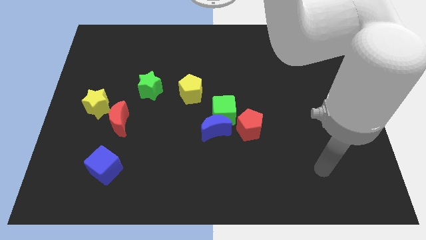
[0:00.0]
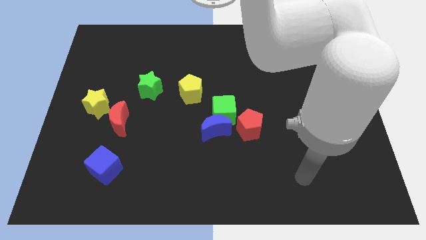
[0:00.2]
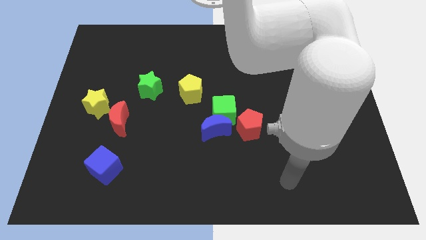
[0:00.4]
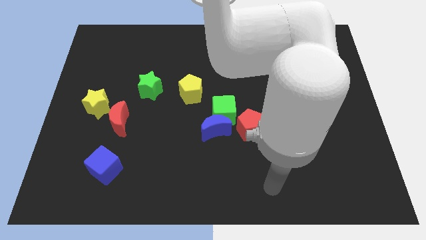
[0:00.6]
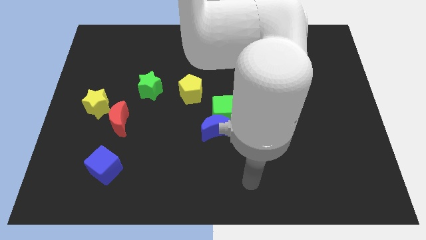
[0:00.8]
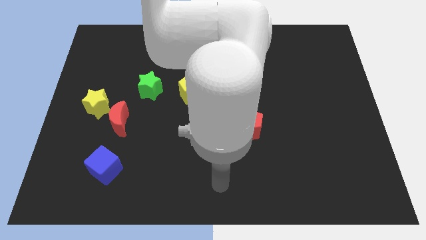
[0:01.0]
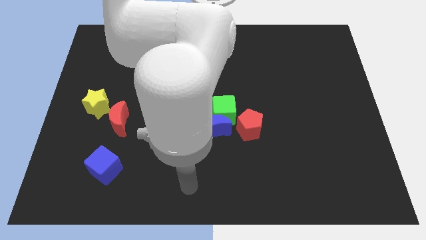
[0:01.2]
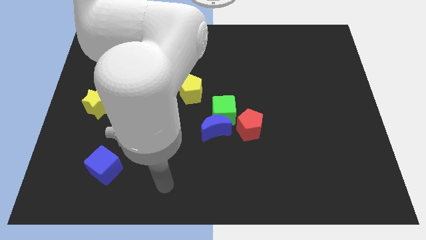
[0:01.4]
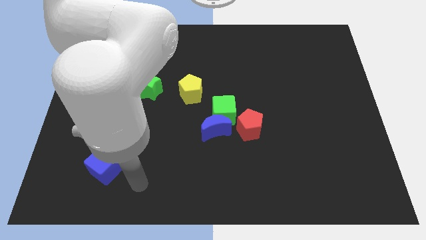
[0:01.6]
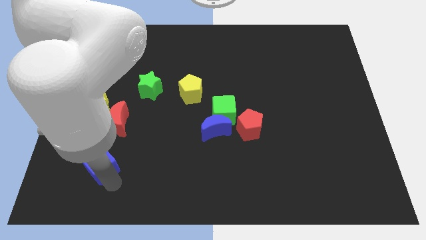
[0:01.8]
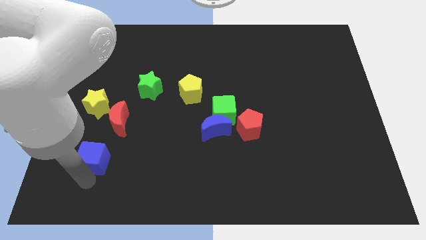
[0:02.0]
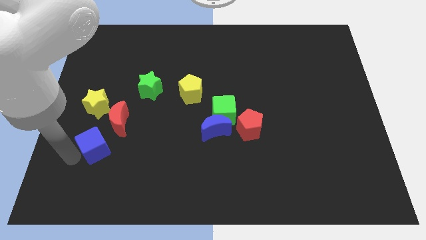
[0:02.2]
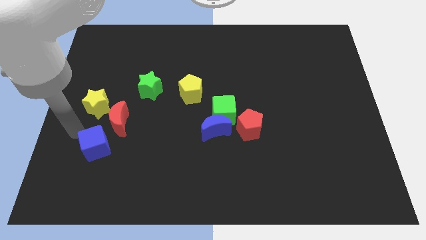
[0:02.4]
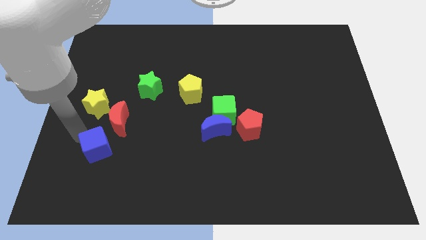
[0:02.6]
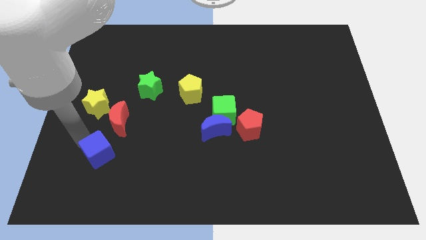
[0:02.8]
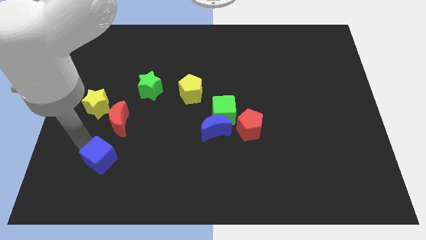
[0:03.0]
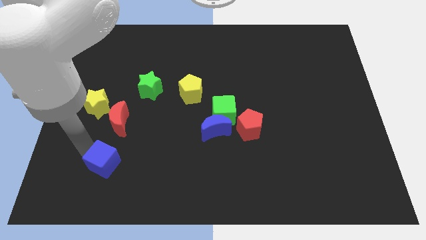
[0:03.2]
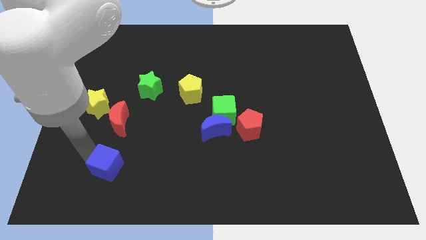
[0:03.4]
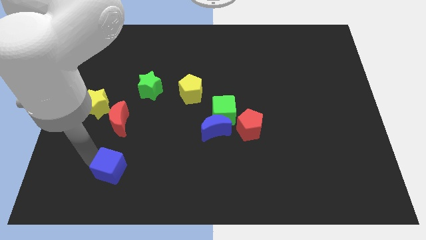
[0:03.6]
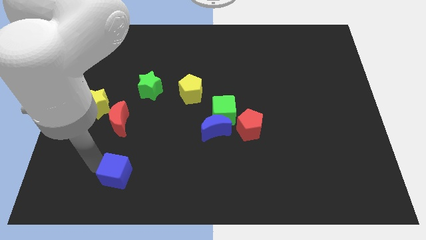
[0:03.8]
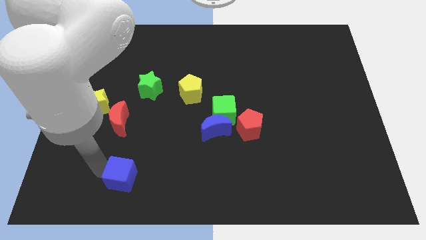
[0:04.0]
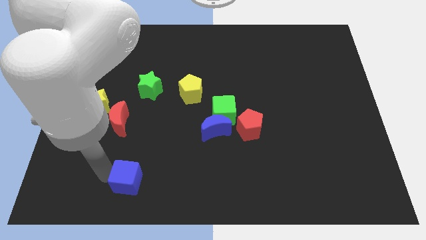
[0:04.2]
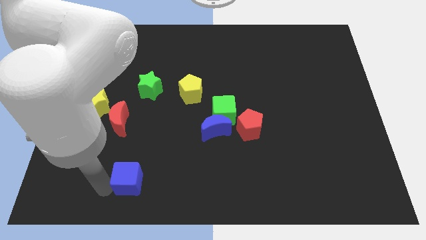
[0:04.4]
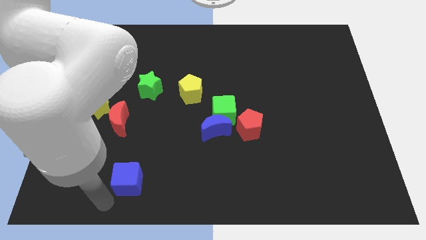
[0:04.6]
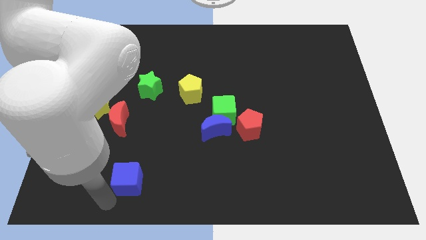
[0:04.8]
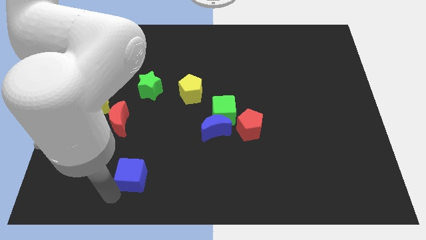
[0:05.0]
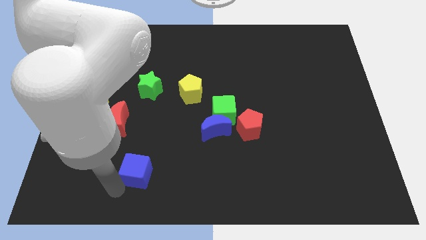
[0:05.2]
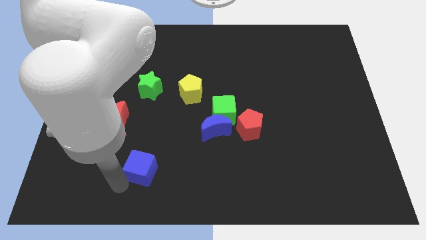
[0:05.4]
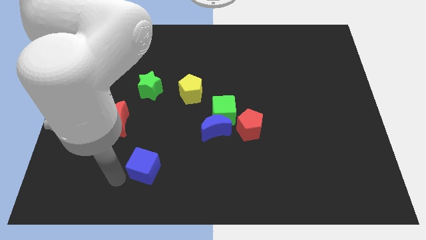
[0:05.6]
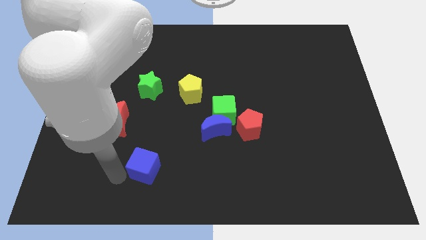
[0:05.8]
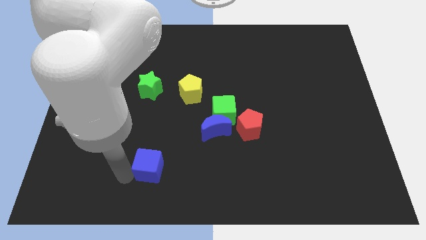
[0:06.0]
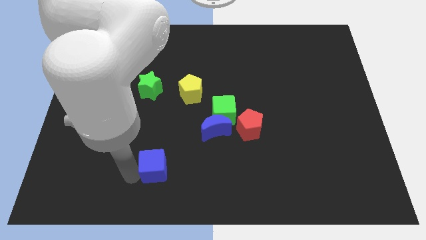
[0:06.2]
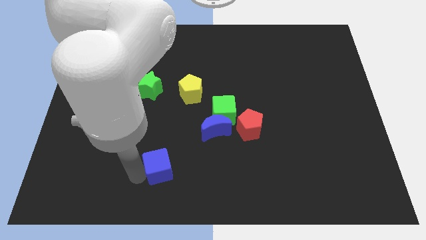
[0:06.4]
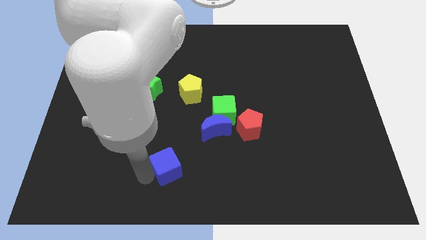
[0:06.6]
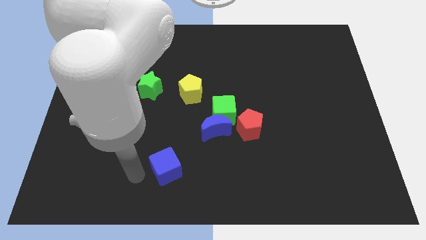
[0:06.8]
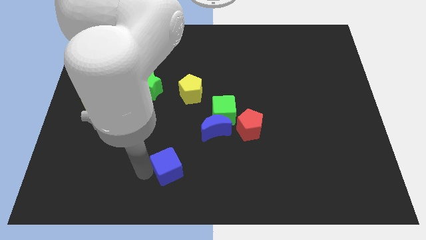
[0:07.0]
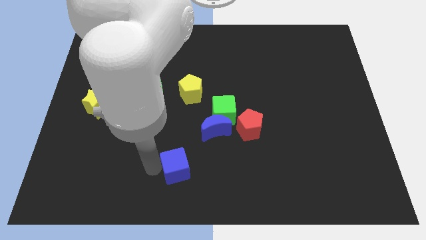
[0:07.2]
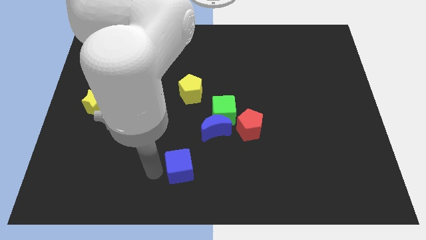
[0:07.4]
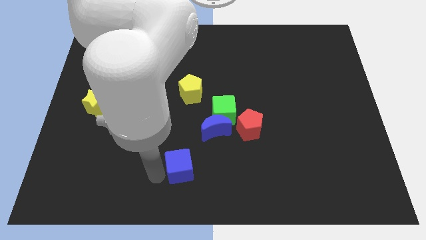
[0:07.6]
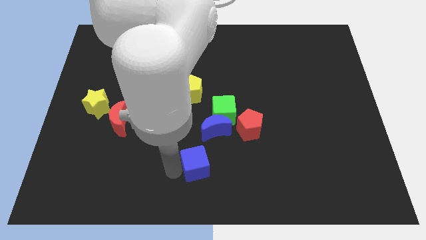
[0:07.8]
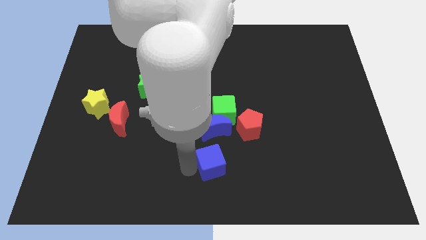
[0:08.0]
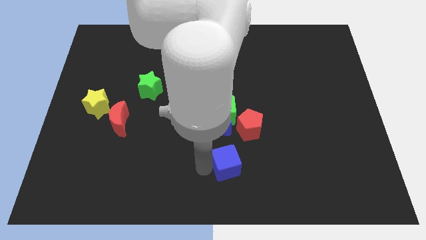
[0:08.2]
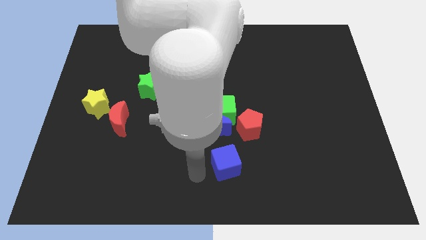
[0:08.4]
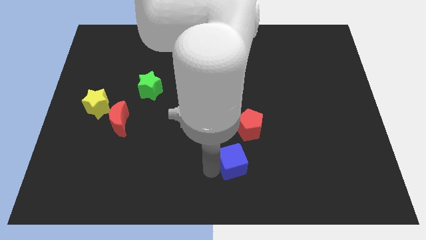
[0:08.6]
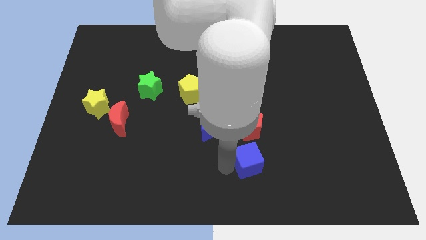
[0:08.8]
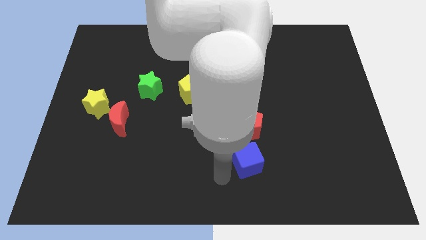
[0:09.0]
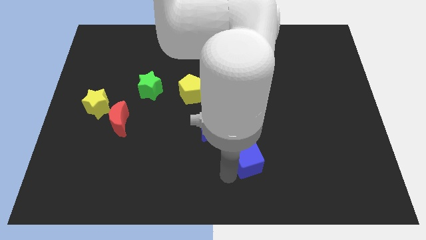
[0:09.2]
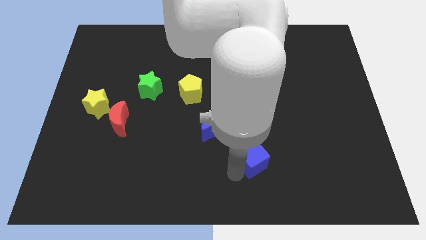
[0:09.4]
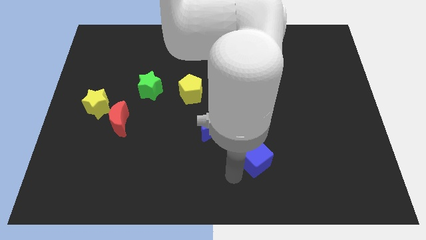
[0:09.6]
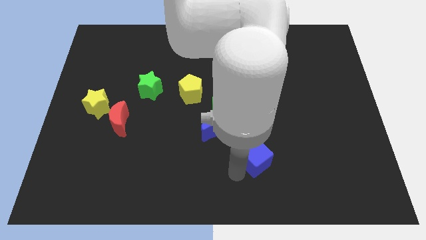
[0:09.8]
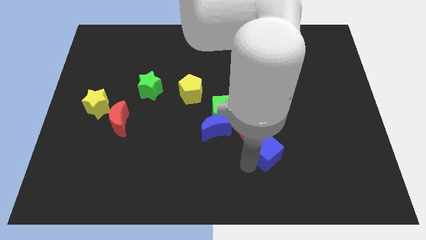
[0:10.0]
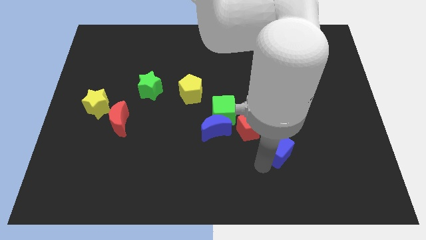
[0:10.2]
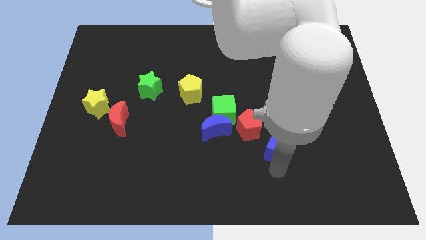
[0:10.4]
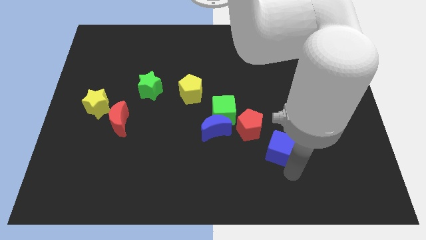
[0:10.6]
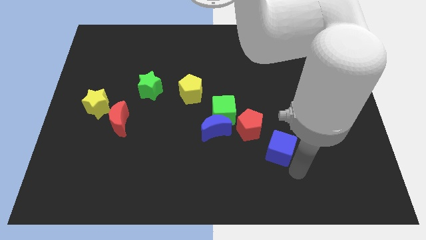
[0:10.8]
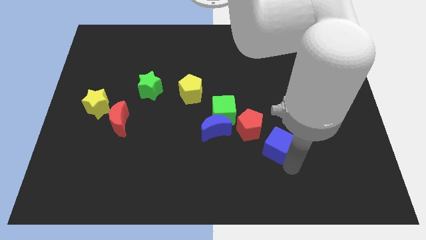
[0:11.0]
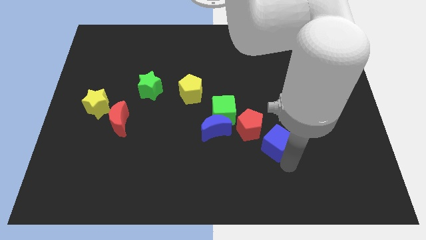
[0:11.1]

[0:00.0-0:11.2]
push the blue cube to the right side of the blue moon

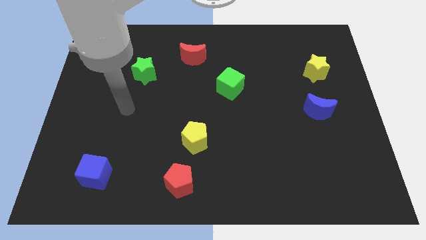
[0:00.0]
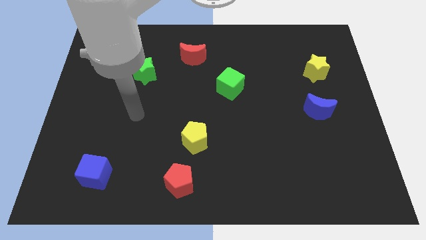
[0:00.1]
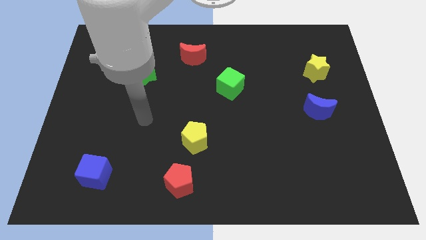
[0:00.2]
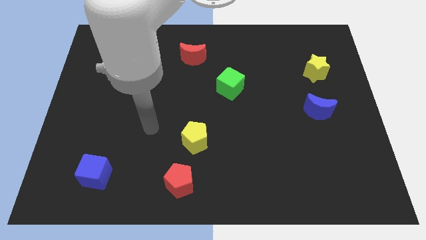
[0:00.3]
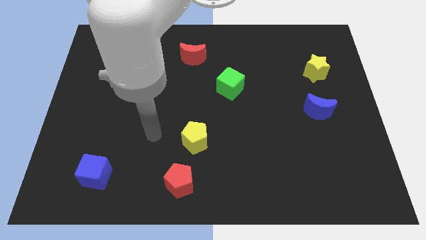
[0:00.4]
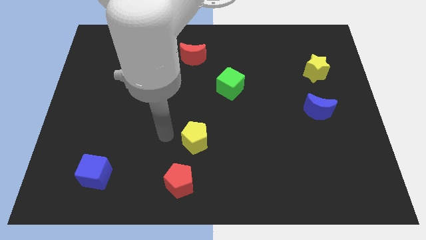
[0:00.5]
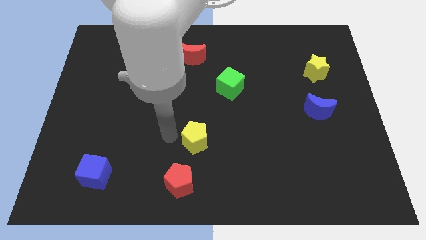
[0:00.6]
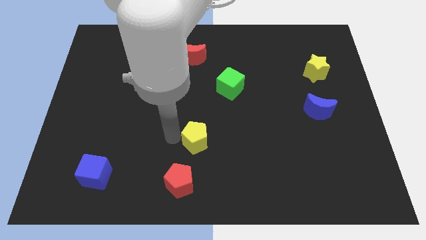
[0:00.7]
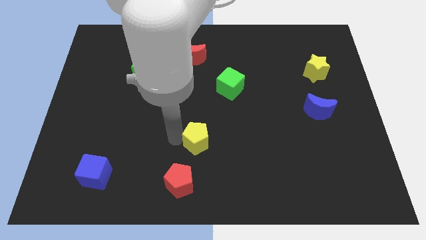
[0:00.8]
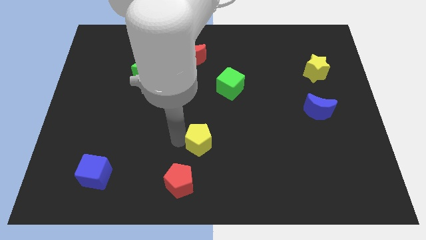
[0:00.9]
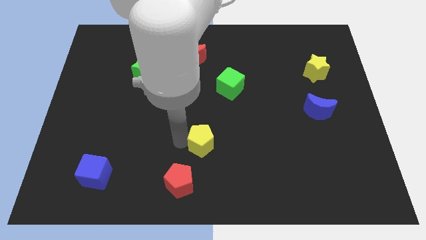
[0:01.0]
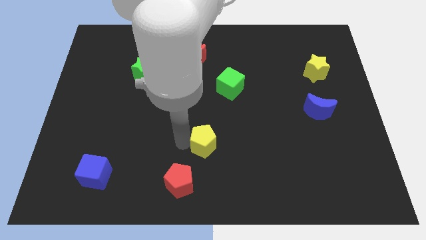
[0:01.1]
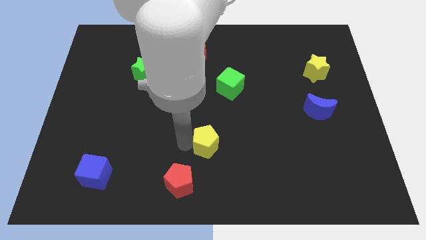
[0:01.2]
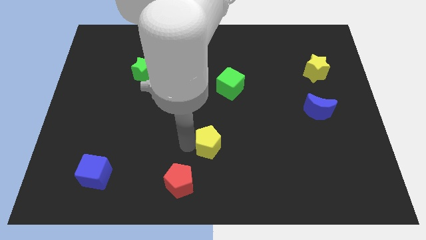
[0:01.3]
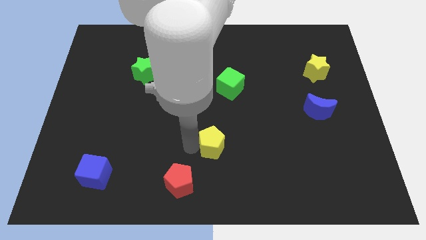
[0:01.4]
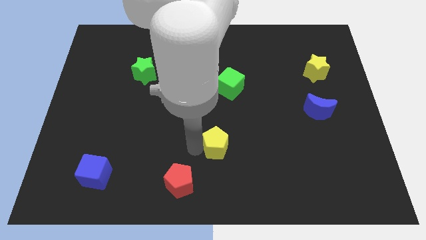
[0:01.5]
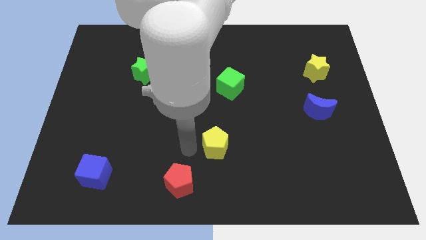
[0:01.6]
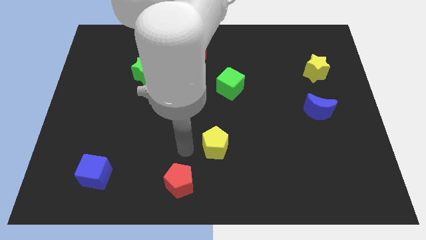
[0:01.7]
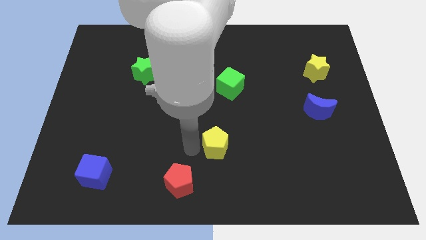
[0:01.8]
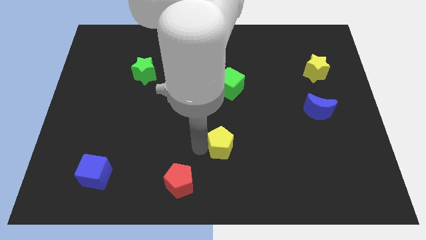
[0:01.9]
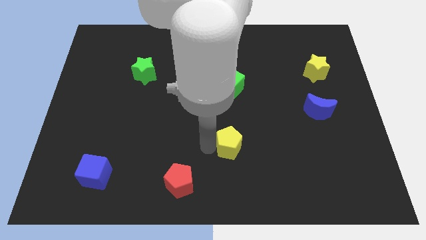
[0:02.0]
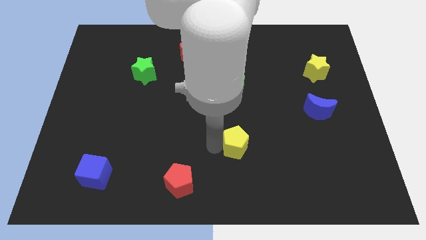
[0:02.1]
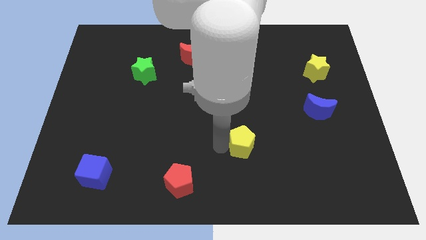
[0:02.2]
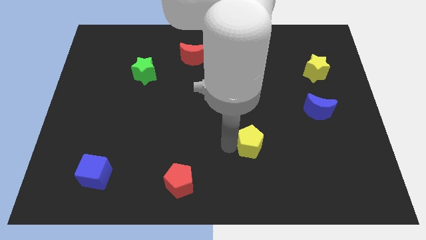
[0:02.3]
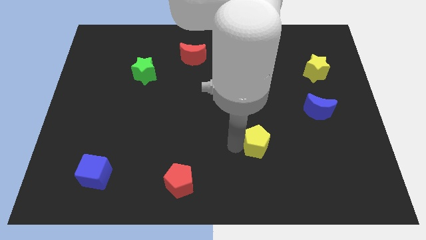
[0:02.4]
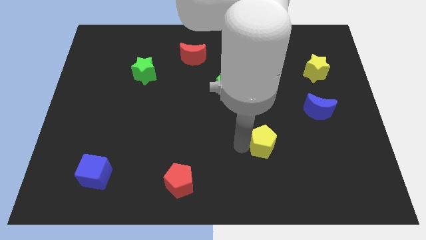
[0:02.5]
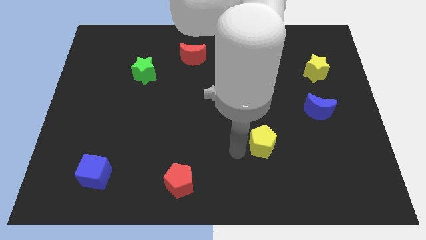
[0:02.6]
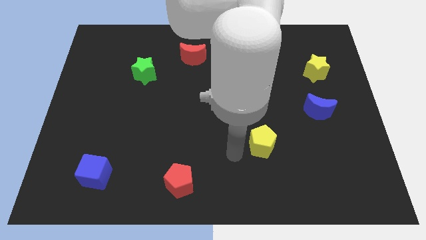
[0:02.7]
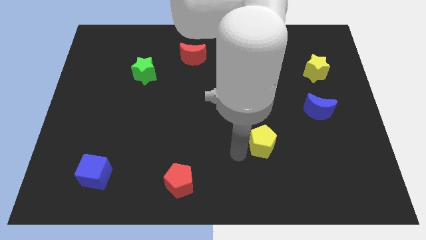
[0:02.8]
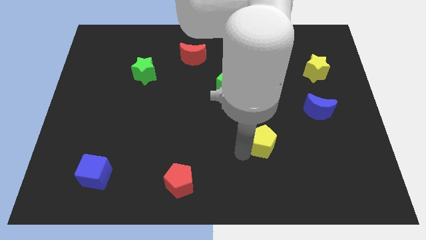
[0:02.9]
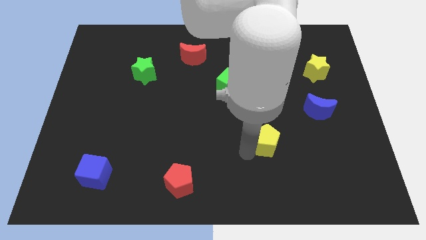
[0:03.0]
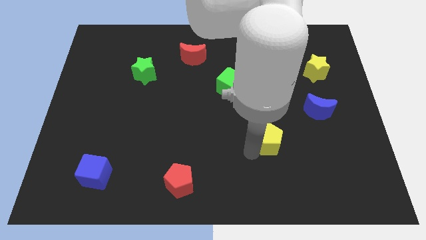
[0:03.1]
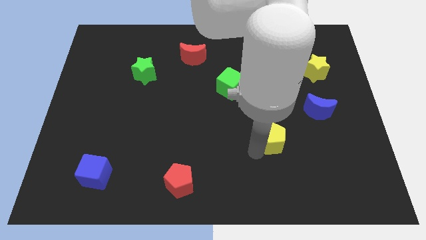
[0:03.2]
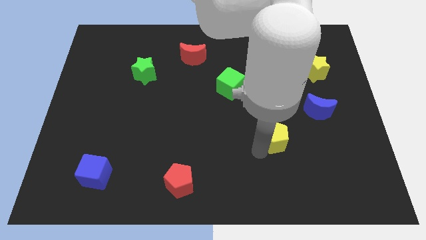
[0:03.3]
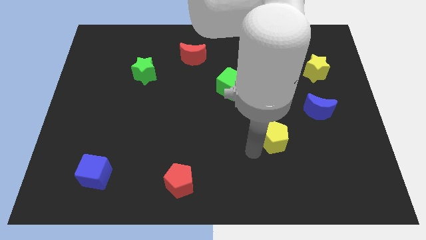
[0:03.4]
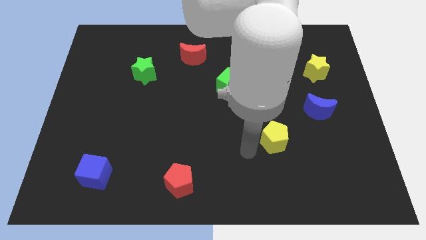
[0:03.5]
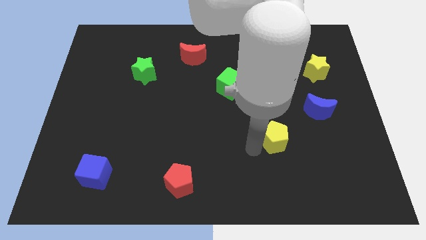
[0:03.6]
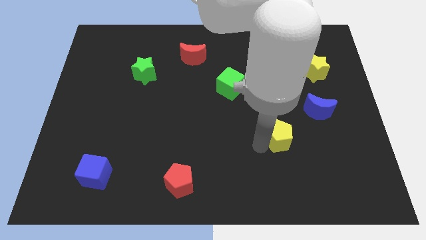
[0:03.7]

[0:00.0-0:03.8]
move the yellow pentagon to the bottom left of the blue moon
